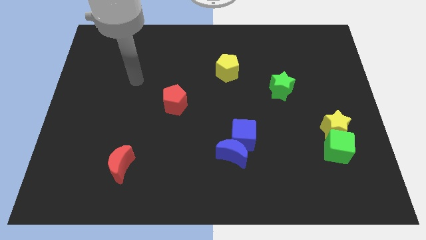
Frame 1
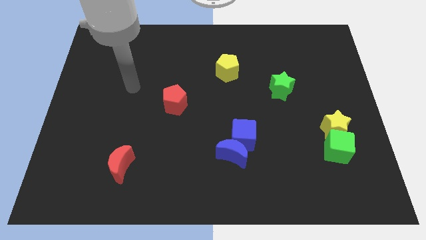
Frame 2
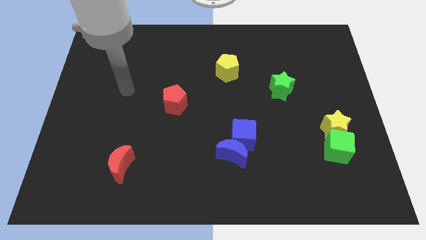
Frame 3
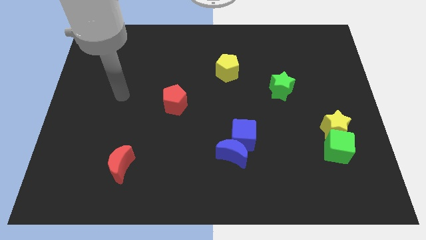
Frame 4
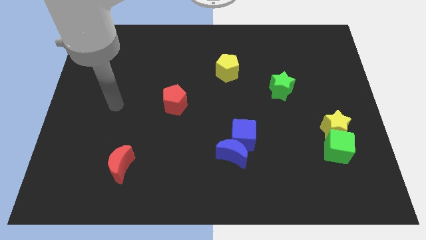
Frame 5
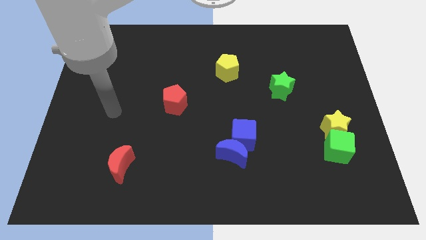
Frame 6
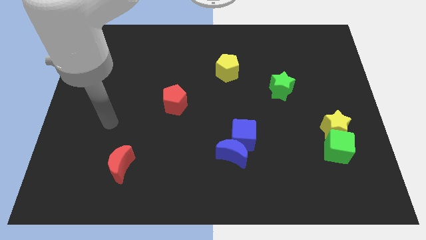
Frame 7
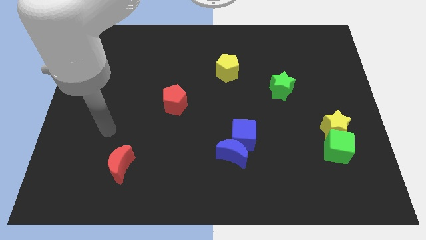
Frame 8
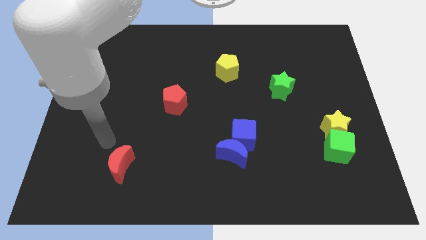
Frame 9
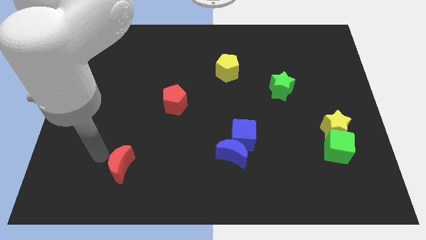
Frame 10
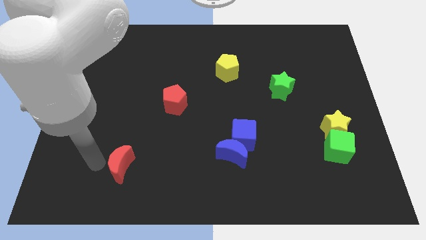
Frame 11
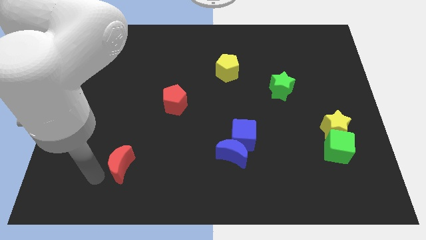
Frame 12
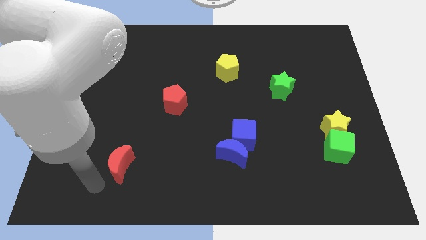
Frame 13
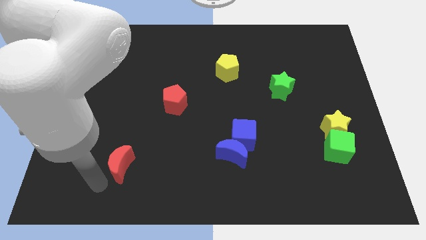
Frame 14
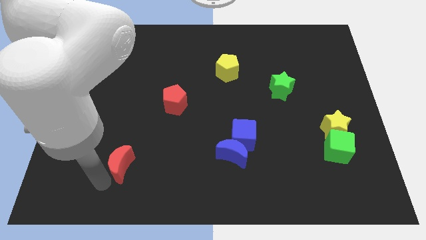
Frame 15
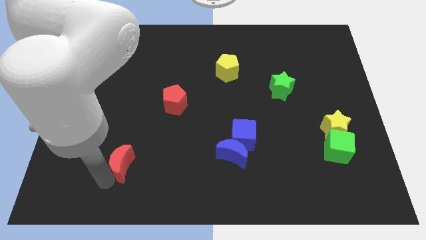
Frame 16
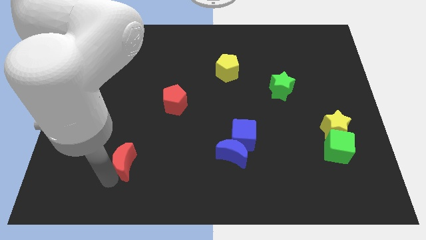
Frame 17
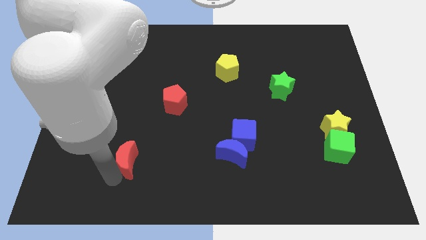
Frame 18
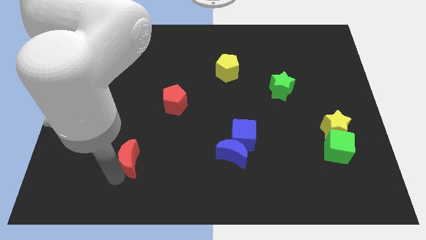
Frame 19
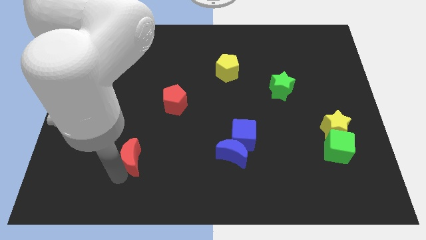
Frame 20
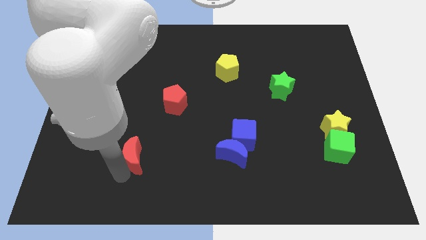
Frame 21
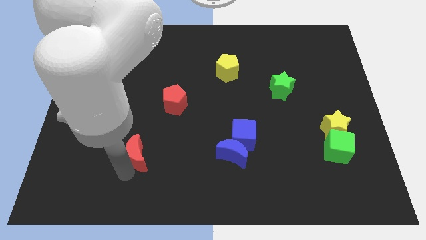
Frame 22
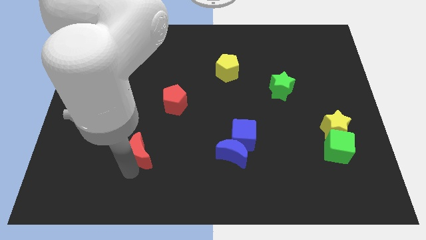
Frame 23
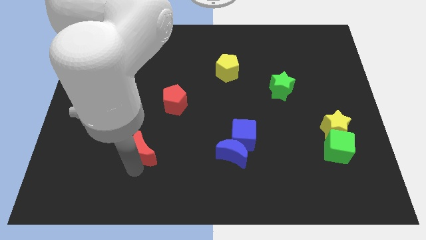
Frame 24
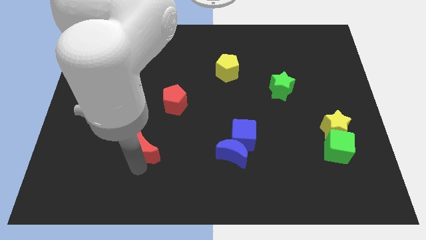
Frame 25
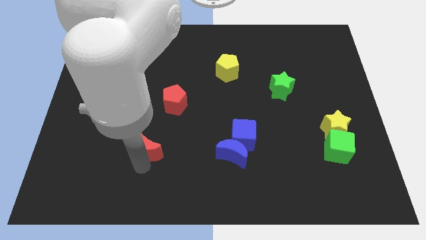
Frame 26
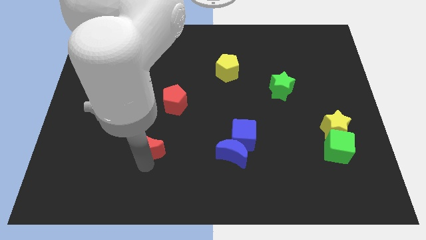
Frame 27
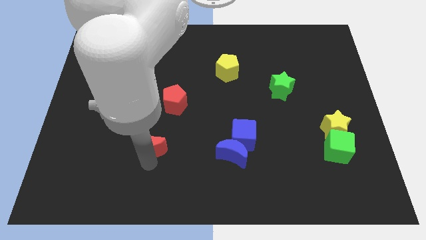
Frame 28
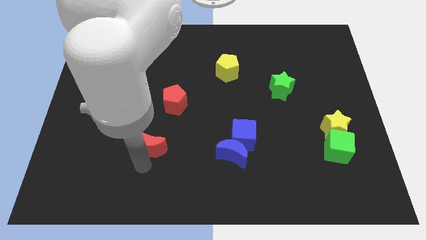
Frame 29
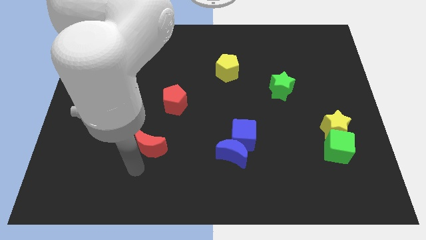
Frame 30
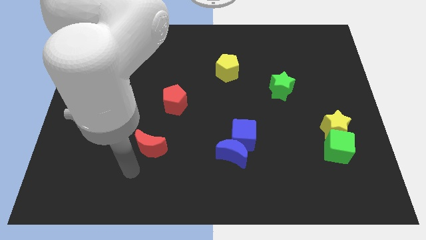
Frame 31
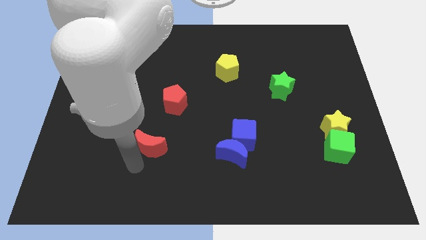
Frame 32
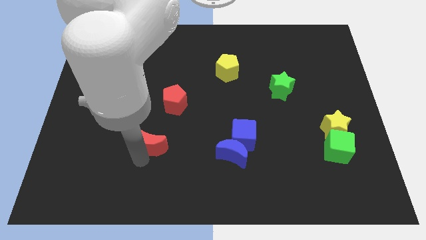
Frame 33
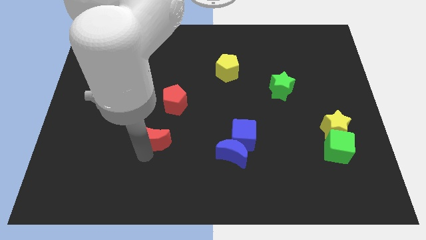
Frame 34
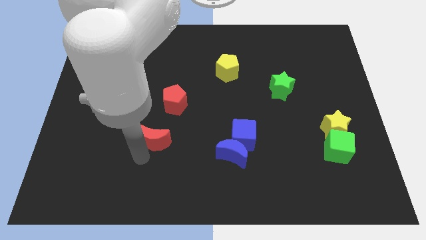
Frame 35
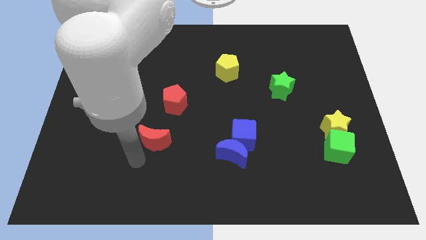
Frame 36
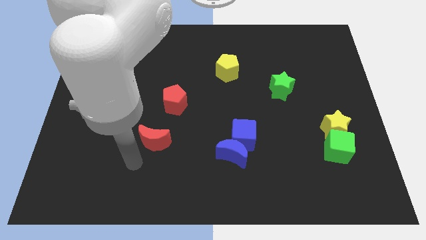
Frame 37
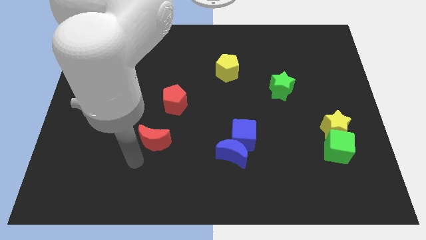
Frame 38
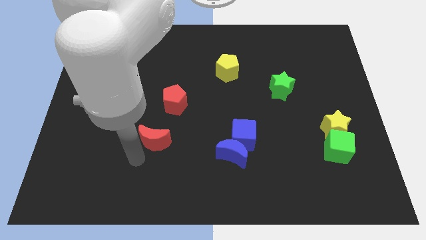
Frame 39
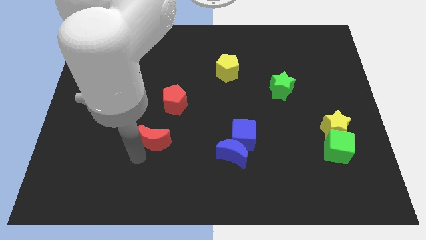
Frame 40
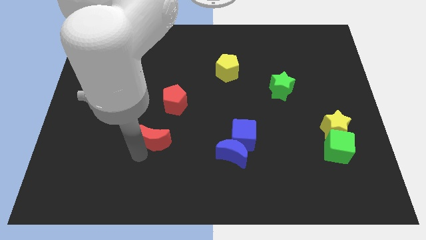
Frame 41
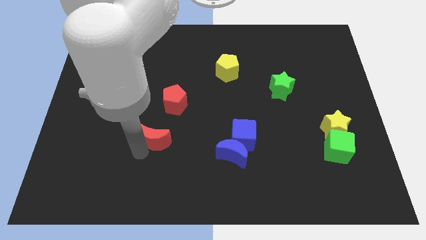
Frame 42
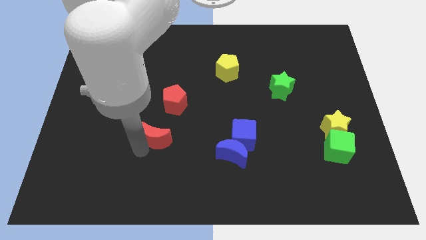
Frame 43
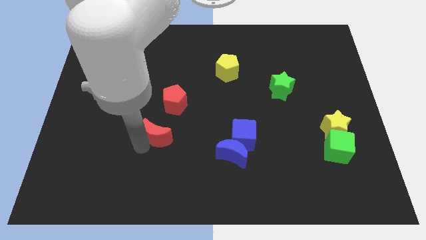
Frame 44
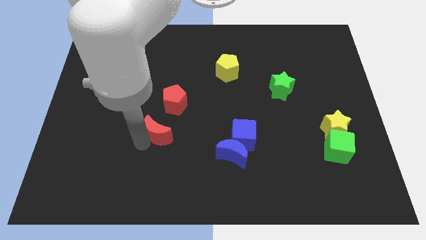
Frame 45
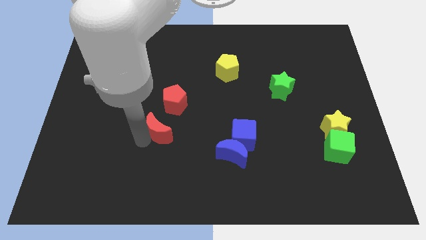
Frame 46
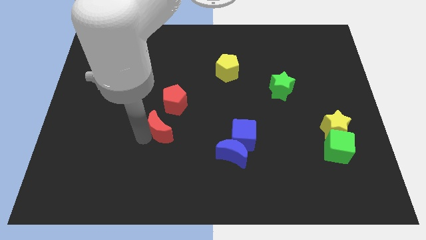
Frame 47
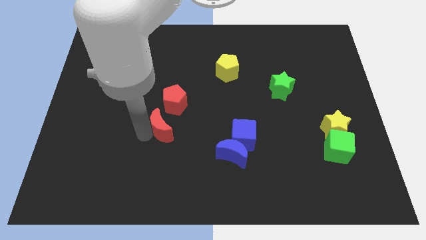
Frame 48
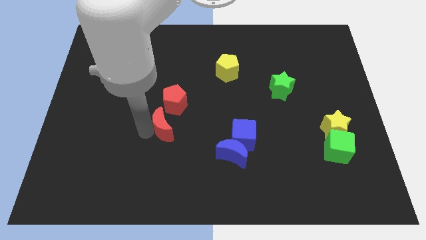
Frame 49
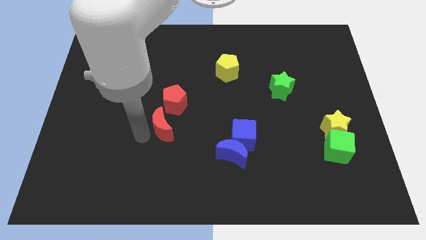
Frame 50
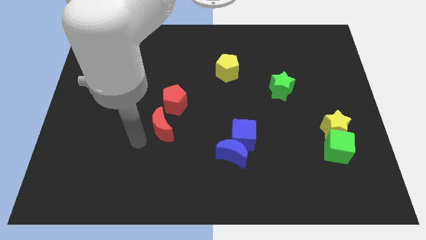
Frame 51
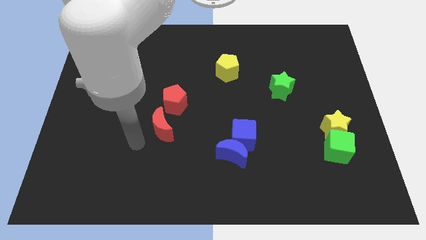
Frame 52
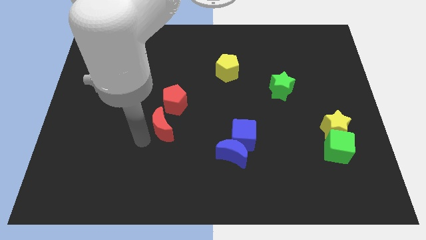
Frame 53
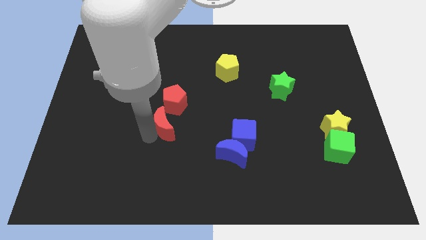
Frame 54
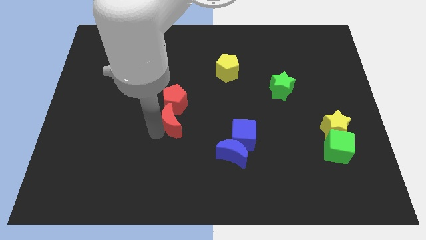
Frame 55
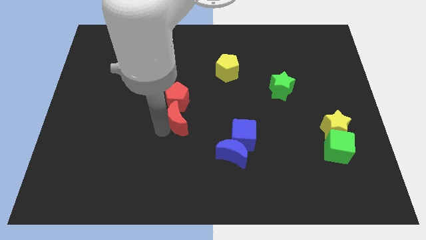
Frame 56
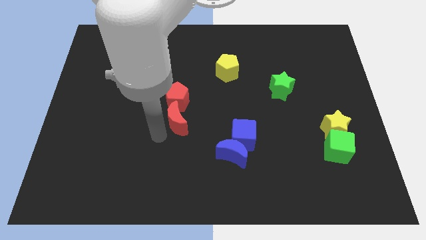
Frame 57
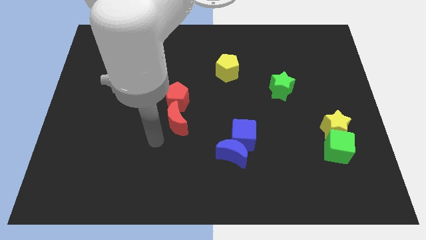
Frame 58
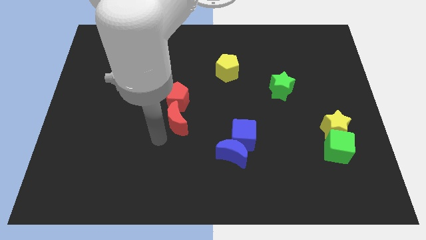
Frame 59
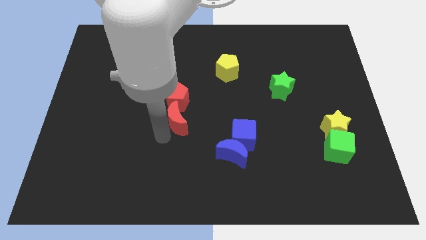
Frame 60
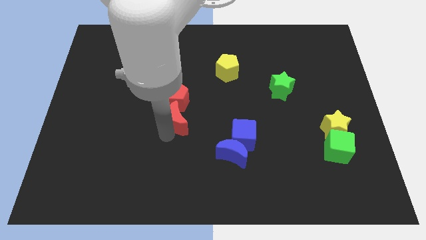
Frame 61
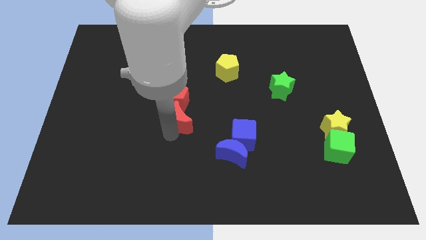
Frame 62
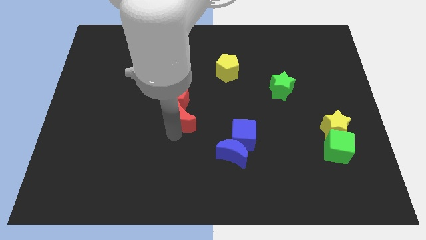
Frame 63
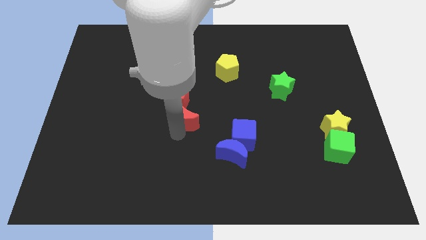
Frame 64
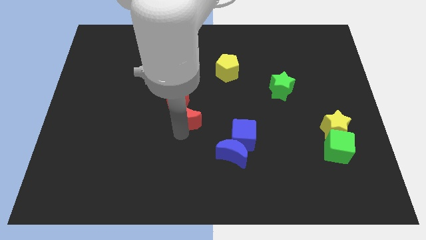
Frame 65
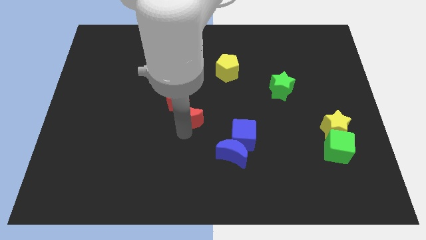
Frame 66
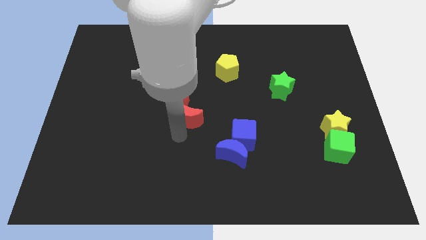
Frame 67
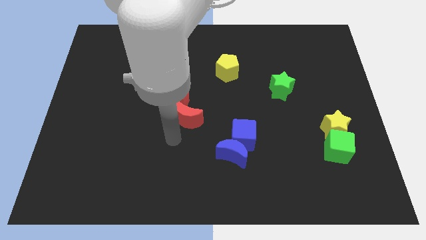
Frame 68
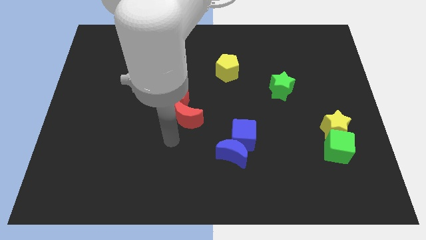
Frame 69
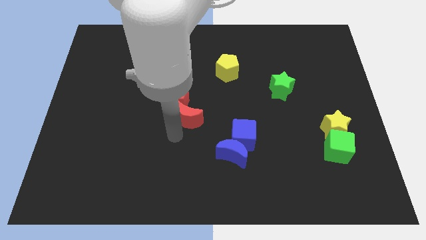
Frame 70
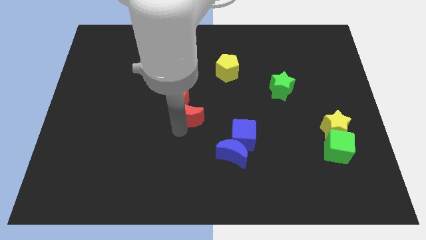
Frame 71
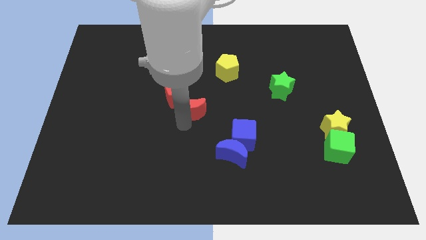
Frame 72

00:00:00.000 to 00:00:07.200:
push the red moon upwards and then to the right

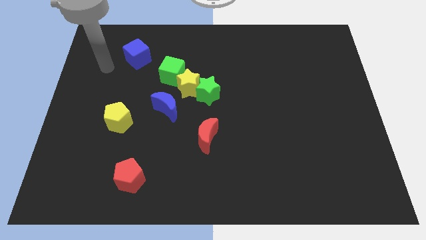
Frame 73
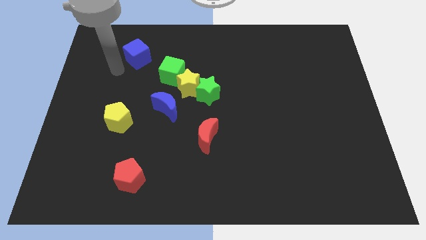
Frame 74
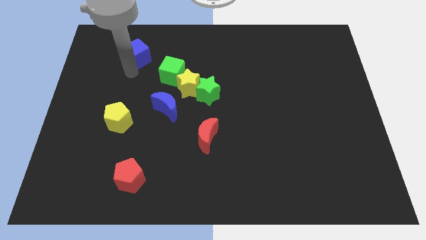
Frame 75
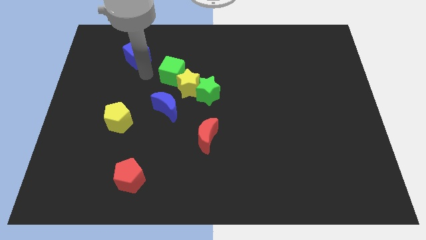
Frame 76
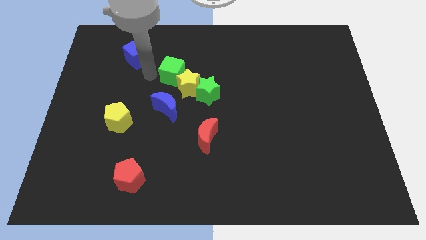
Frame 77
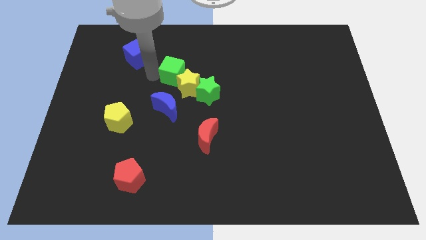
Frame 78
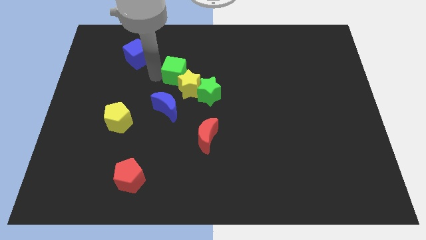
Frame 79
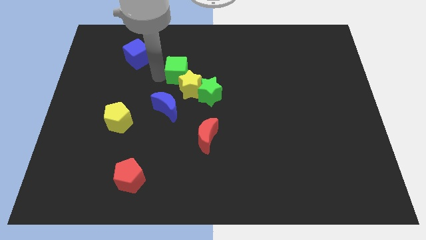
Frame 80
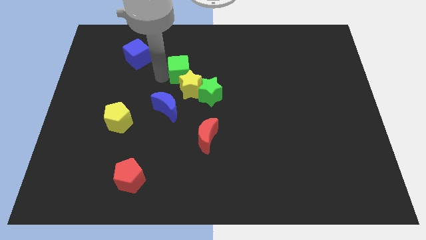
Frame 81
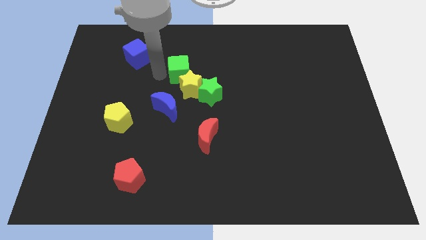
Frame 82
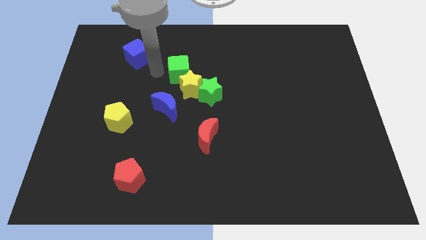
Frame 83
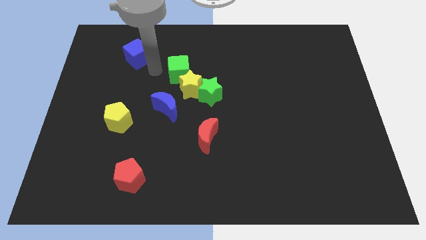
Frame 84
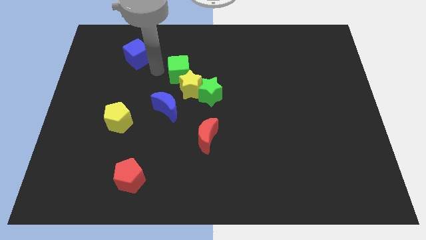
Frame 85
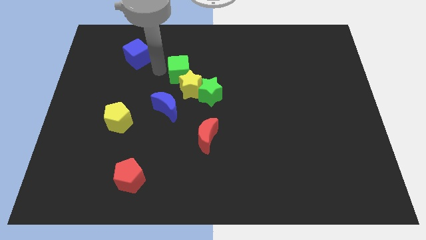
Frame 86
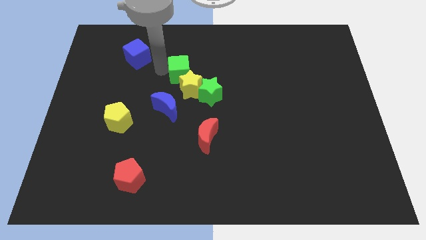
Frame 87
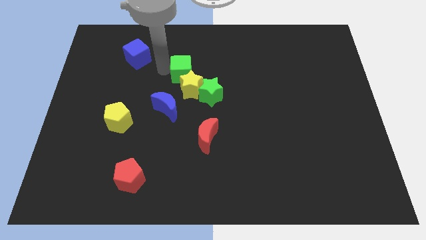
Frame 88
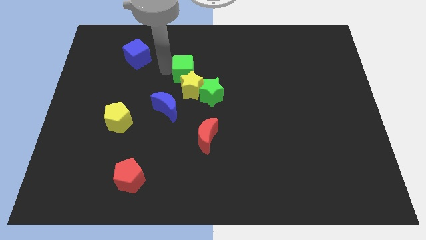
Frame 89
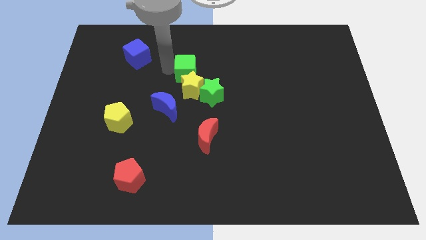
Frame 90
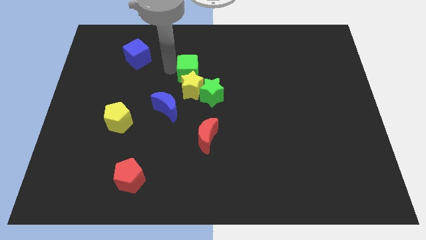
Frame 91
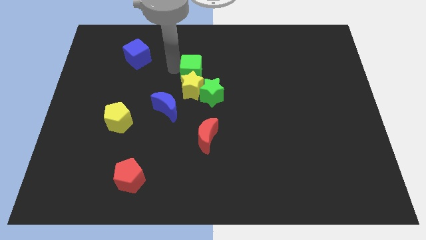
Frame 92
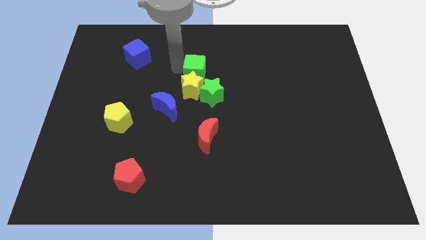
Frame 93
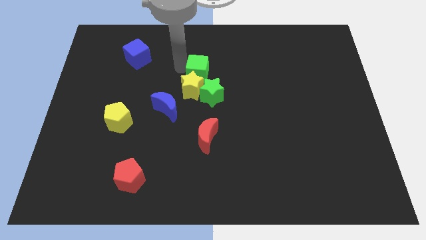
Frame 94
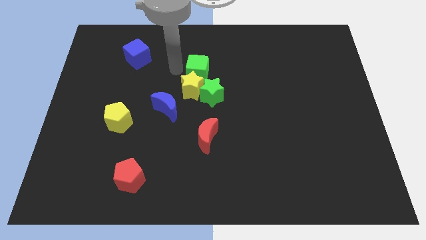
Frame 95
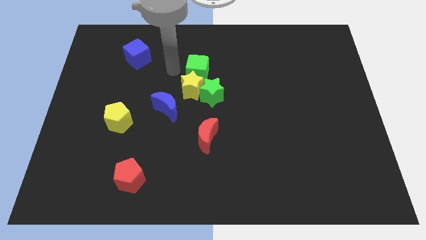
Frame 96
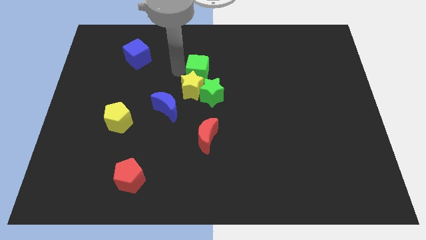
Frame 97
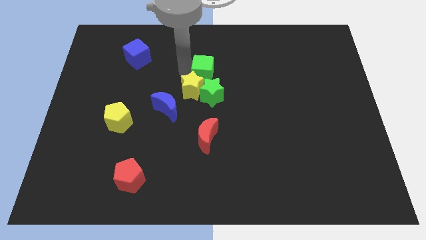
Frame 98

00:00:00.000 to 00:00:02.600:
slightly move the green cube to the right
